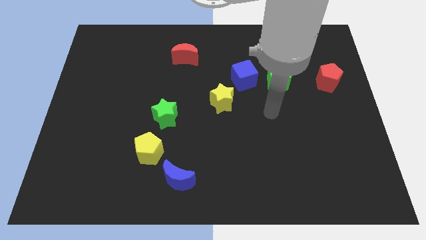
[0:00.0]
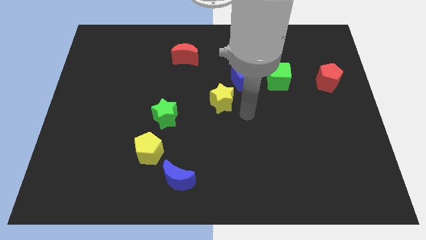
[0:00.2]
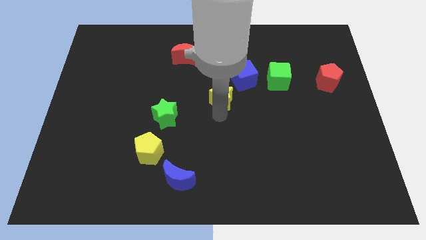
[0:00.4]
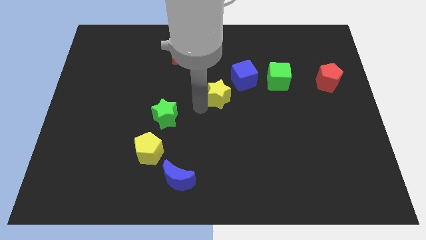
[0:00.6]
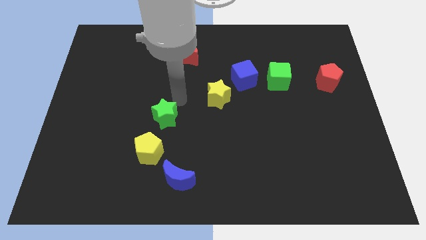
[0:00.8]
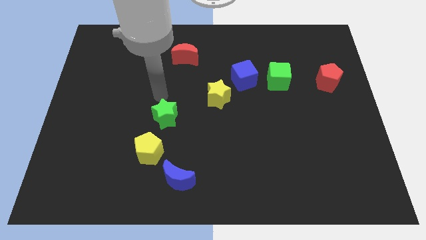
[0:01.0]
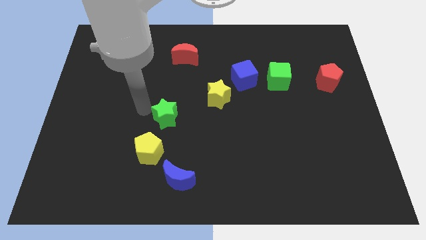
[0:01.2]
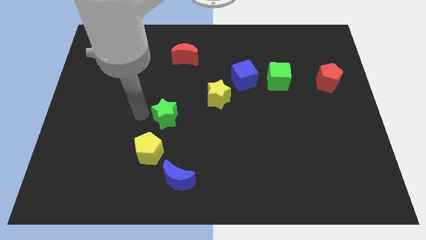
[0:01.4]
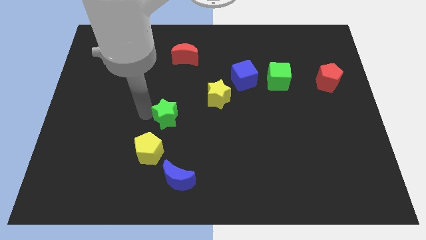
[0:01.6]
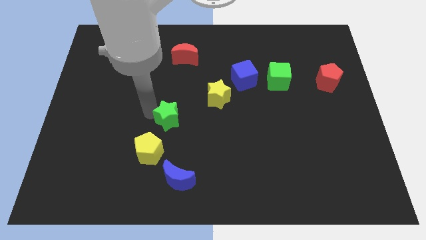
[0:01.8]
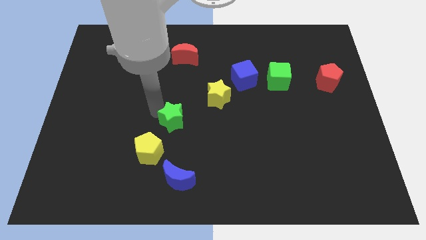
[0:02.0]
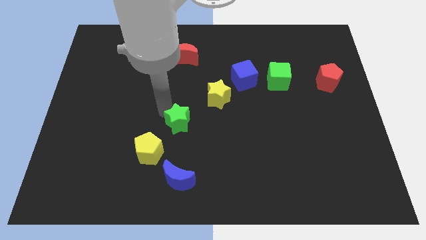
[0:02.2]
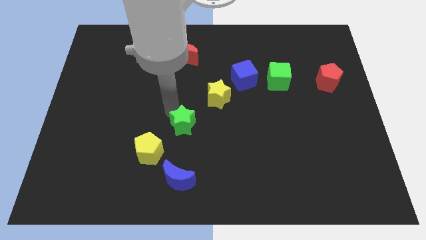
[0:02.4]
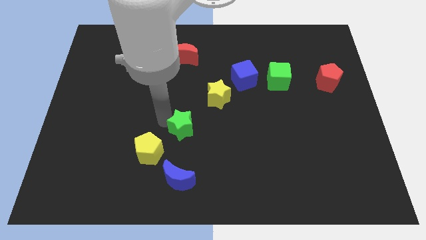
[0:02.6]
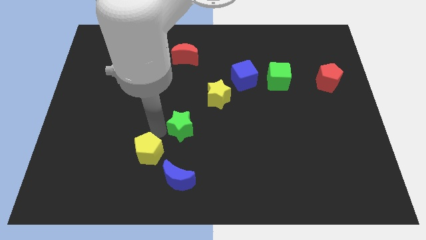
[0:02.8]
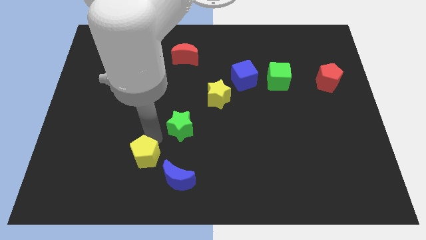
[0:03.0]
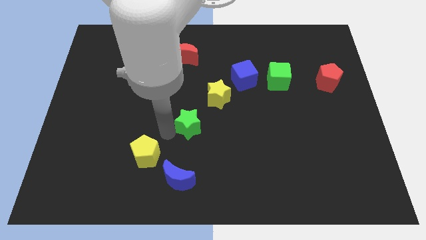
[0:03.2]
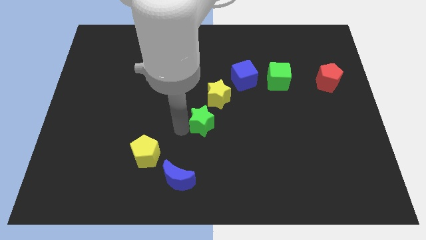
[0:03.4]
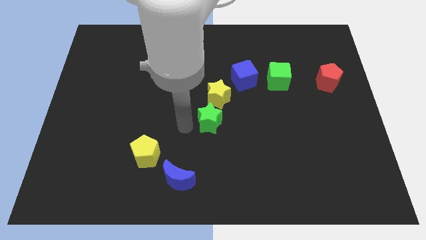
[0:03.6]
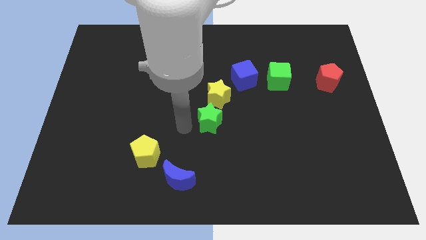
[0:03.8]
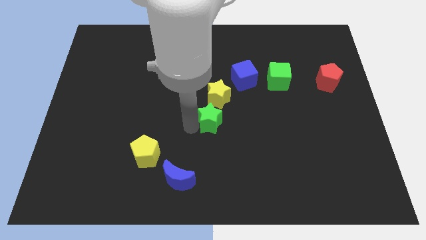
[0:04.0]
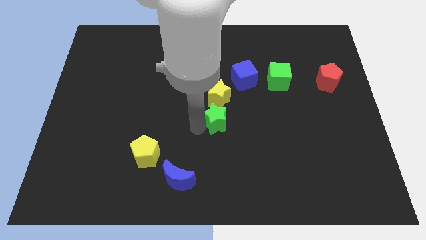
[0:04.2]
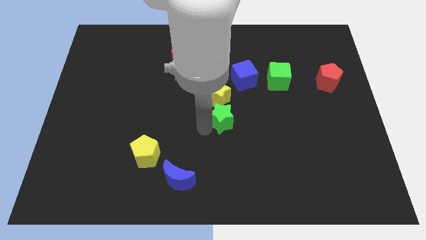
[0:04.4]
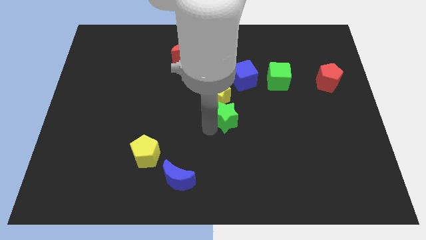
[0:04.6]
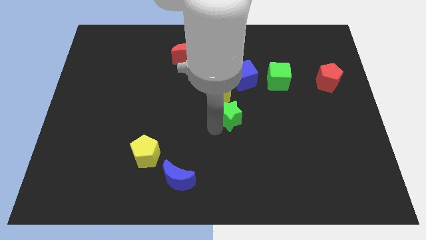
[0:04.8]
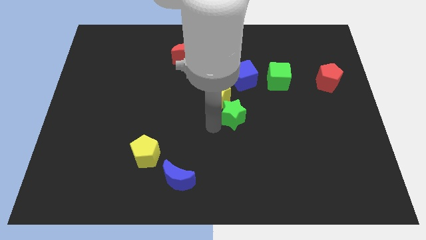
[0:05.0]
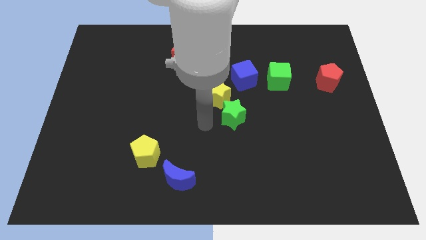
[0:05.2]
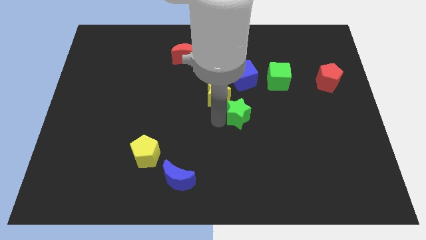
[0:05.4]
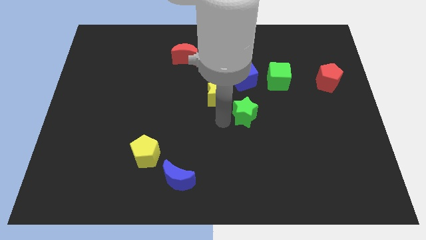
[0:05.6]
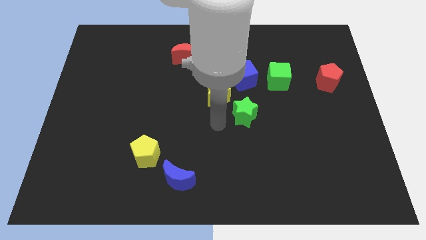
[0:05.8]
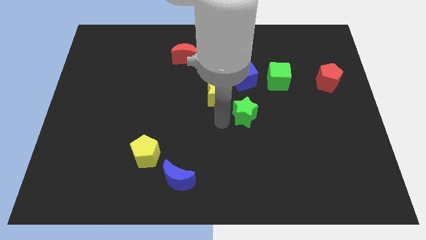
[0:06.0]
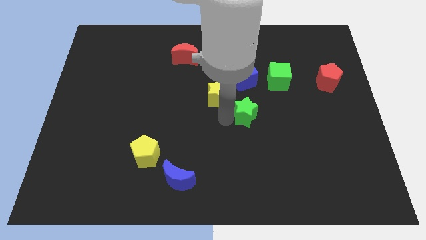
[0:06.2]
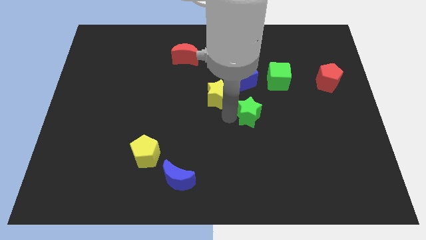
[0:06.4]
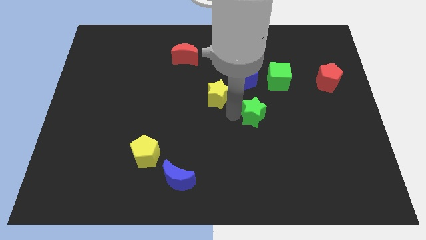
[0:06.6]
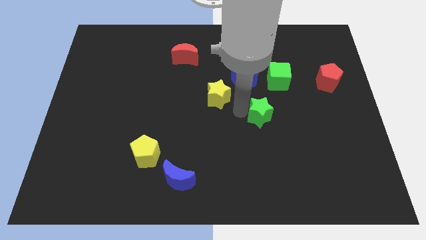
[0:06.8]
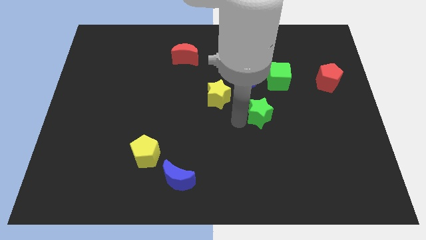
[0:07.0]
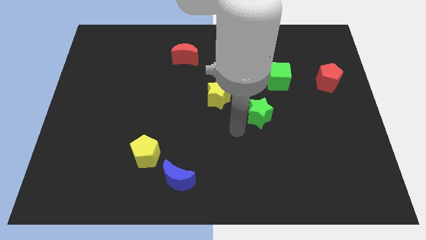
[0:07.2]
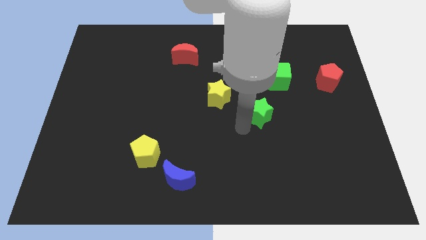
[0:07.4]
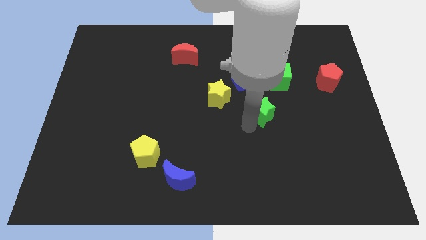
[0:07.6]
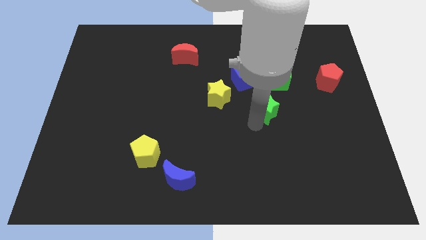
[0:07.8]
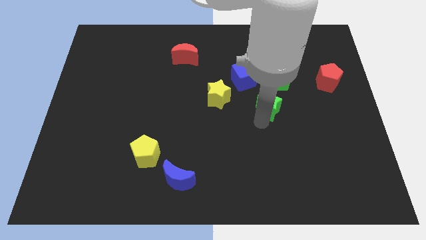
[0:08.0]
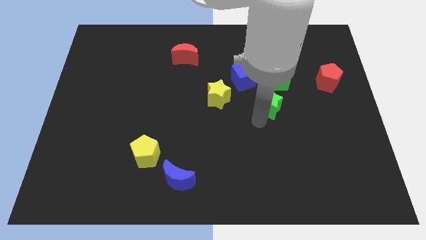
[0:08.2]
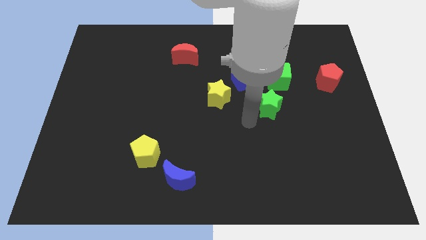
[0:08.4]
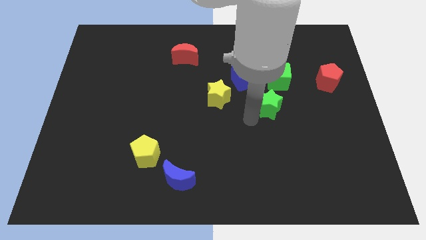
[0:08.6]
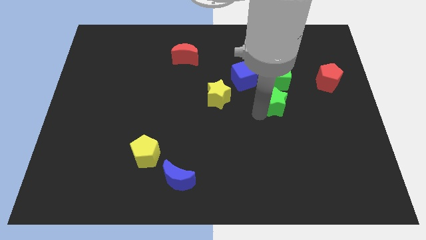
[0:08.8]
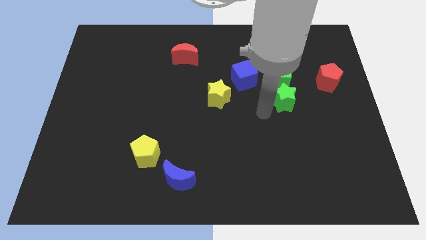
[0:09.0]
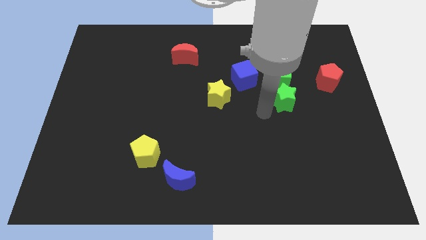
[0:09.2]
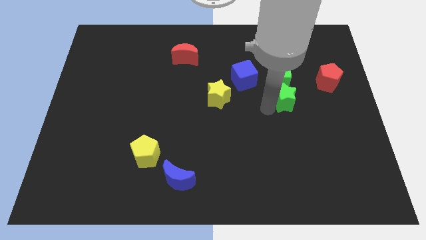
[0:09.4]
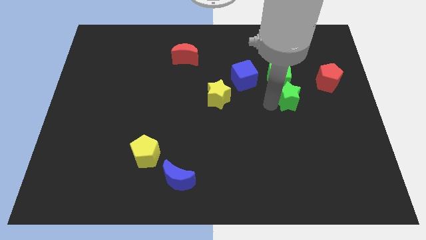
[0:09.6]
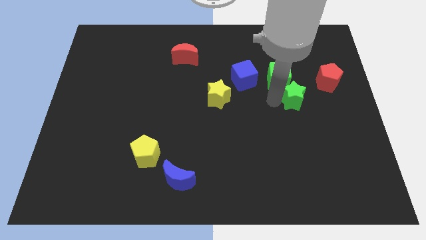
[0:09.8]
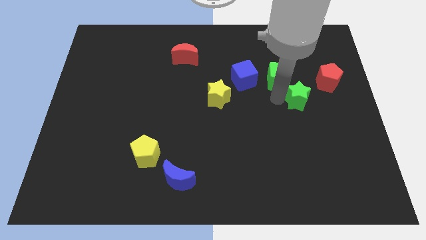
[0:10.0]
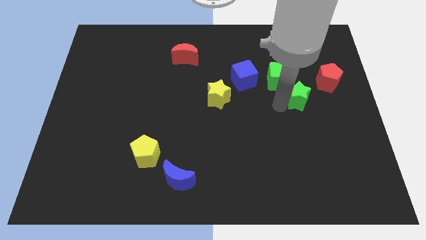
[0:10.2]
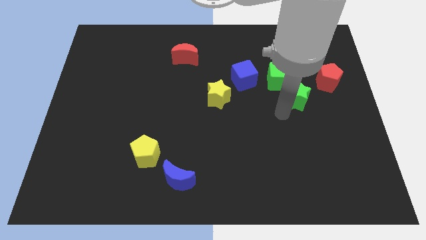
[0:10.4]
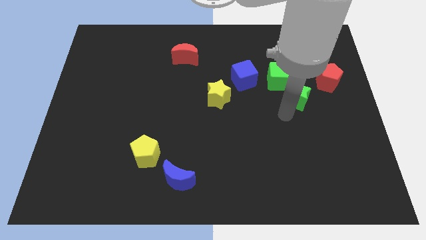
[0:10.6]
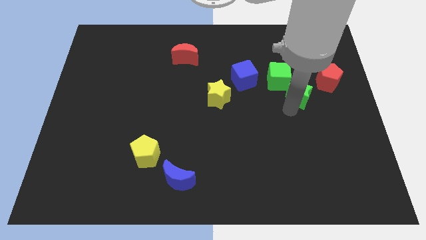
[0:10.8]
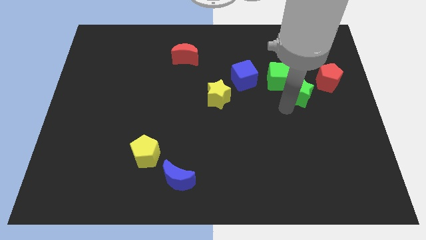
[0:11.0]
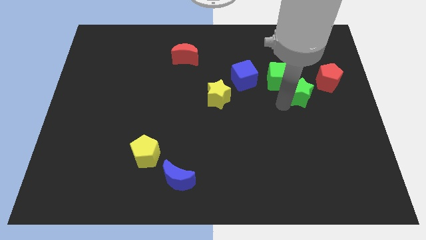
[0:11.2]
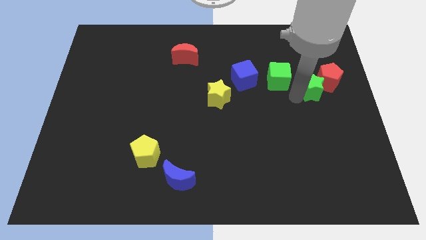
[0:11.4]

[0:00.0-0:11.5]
put the green star to the red pentagon

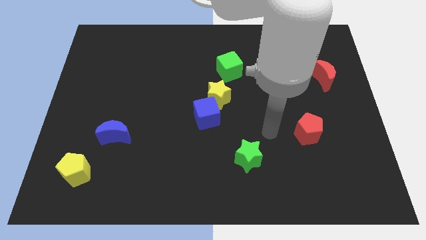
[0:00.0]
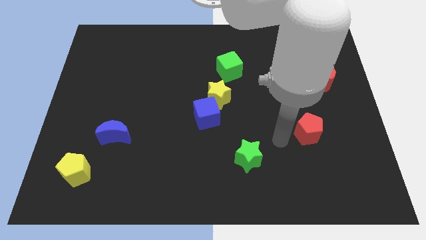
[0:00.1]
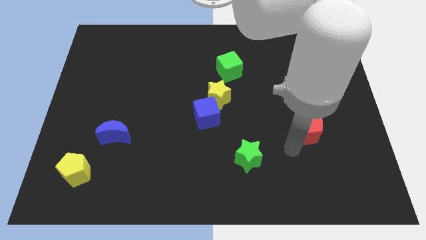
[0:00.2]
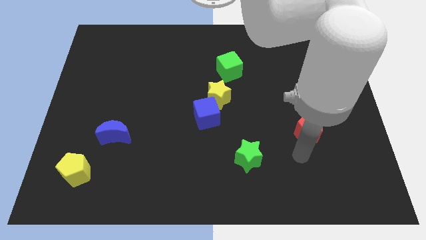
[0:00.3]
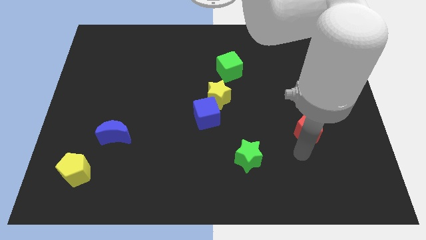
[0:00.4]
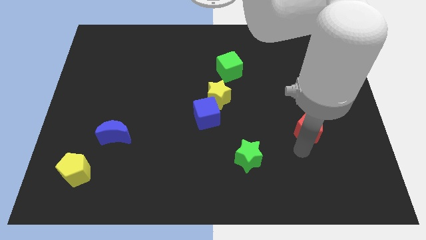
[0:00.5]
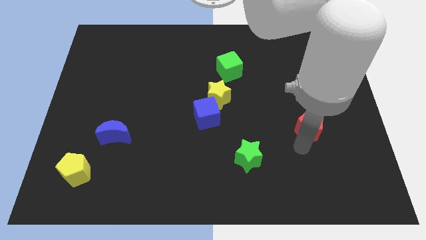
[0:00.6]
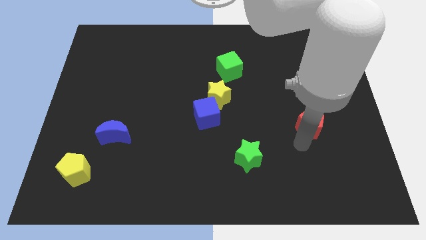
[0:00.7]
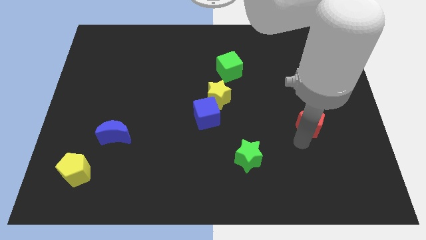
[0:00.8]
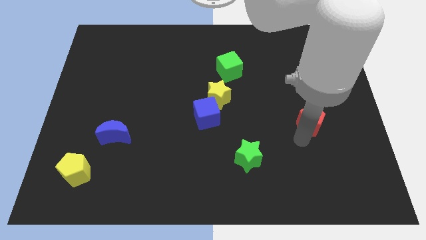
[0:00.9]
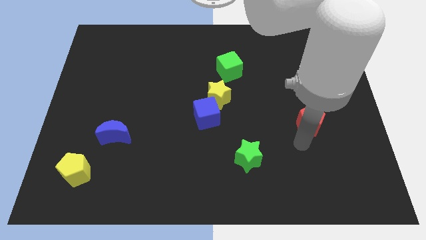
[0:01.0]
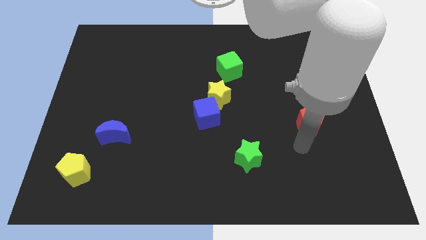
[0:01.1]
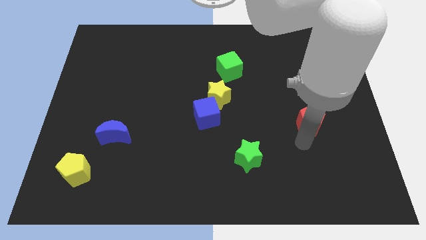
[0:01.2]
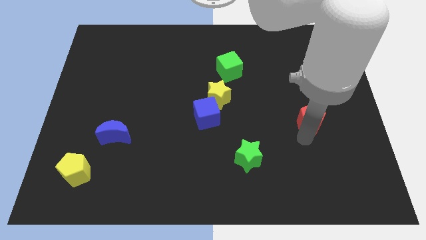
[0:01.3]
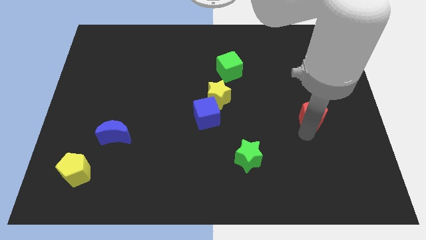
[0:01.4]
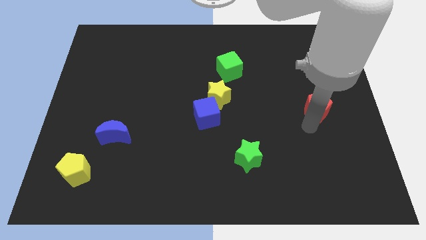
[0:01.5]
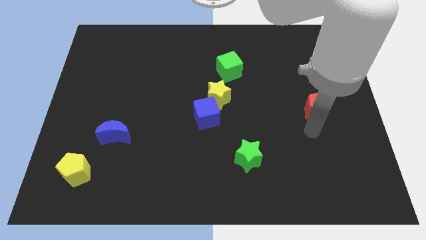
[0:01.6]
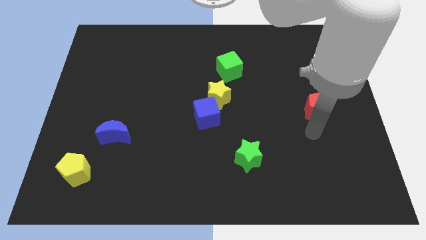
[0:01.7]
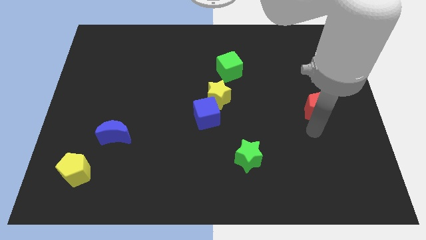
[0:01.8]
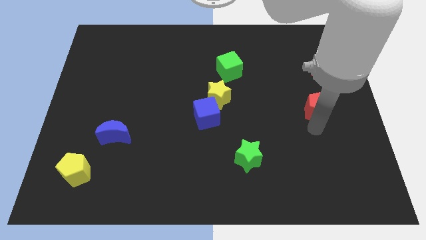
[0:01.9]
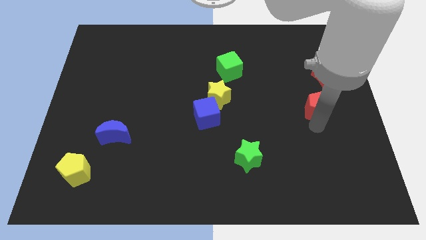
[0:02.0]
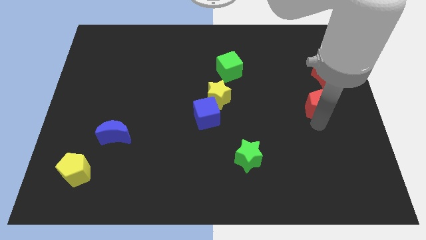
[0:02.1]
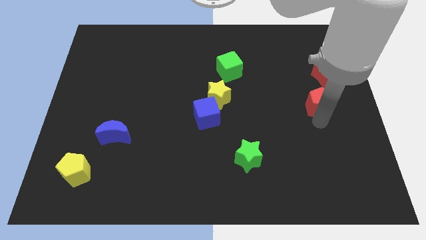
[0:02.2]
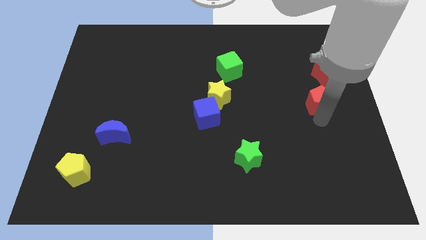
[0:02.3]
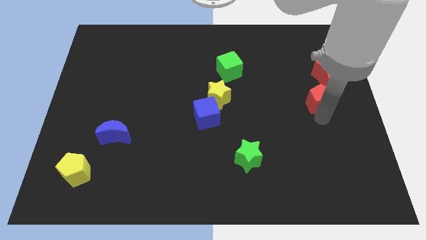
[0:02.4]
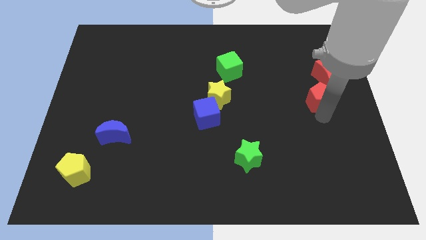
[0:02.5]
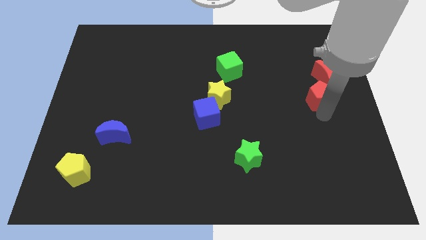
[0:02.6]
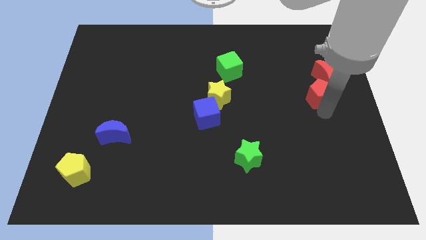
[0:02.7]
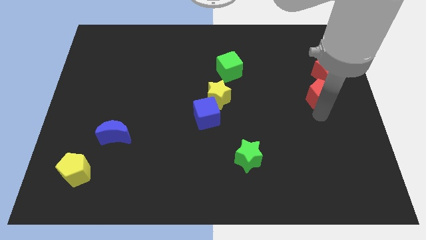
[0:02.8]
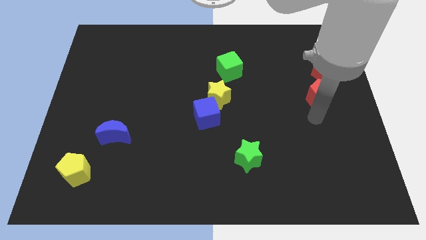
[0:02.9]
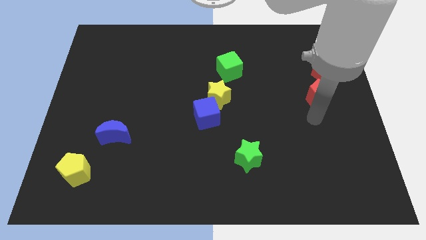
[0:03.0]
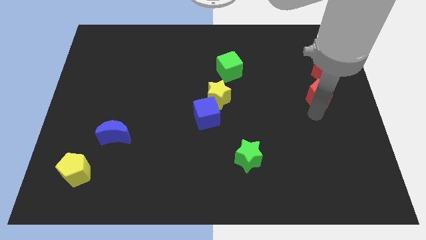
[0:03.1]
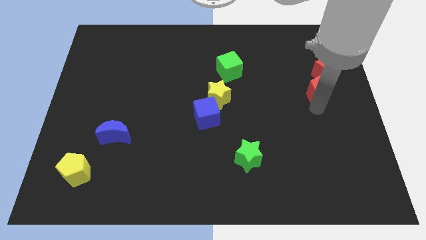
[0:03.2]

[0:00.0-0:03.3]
slide the red pentagon next to the red moon
